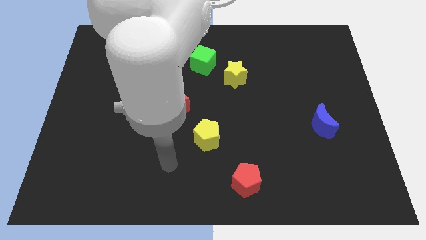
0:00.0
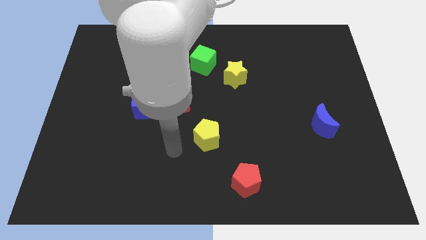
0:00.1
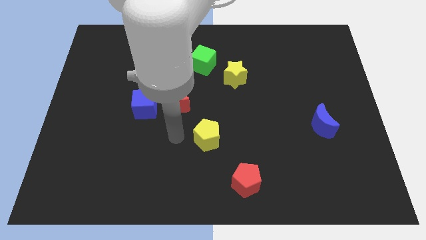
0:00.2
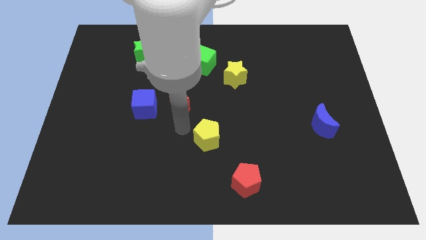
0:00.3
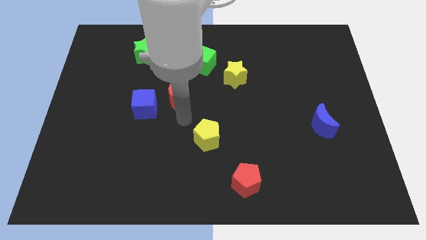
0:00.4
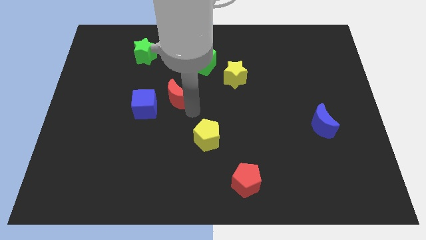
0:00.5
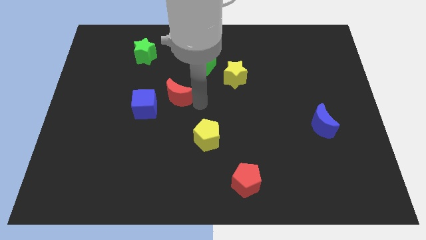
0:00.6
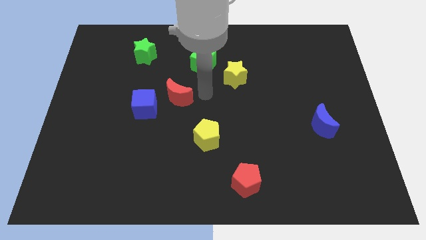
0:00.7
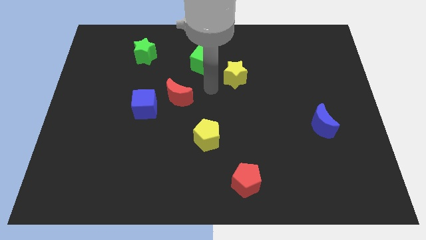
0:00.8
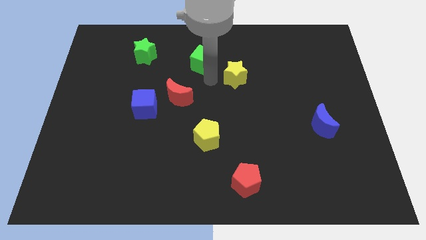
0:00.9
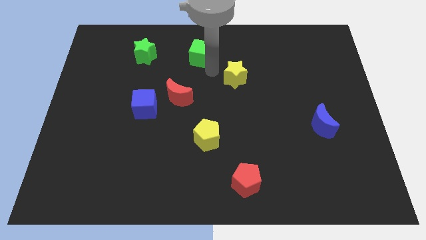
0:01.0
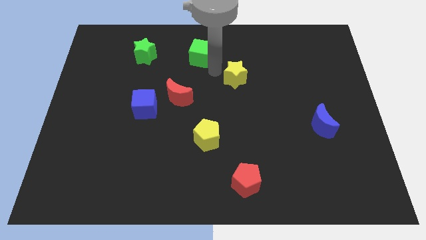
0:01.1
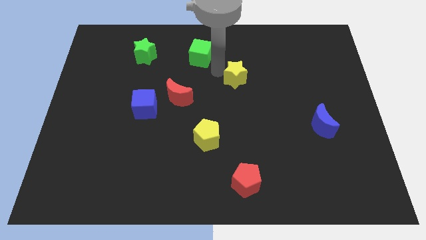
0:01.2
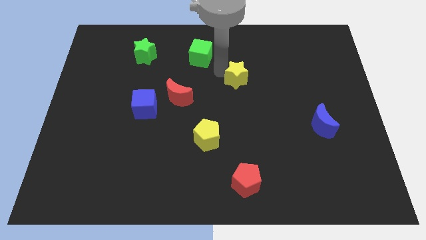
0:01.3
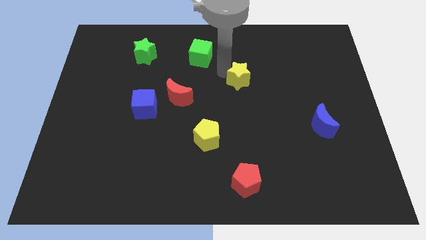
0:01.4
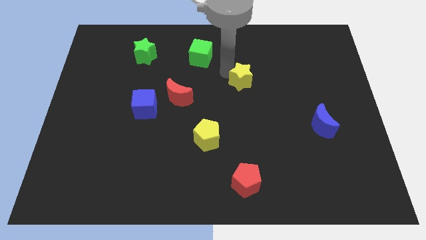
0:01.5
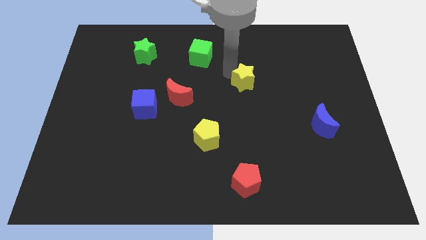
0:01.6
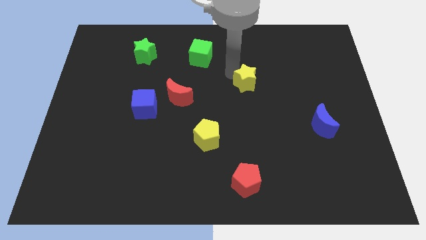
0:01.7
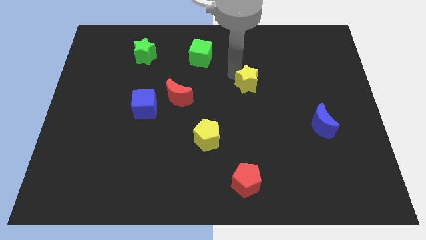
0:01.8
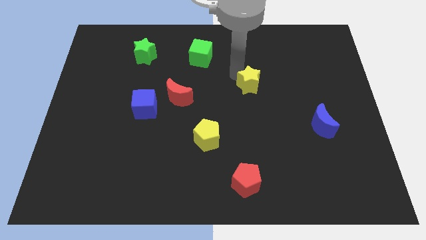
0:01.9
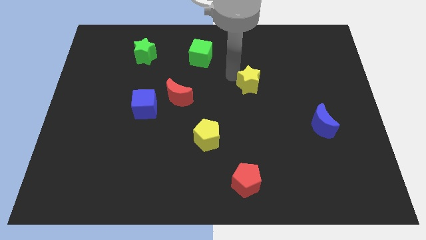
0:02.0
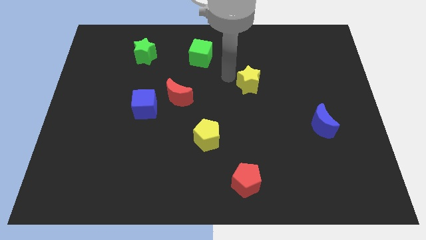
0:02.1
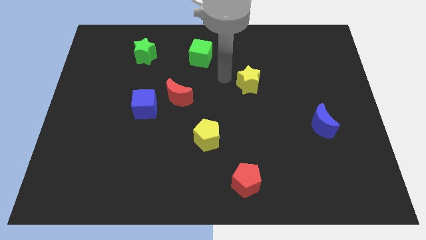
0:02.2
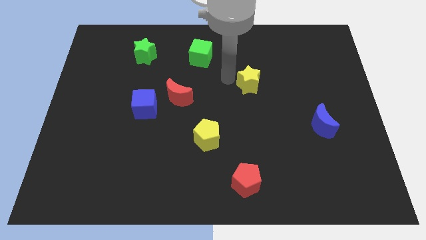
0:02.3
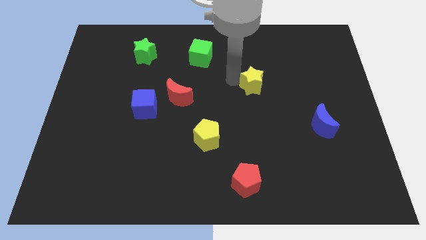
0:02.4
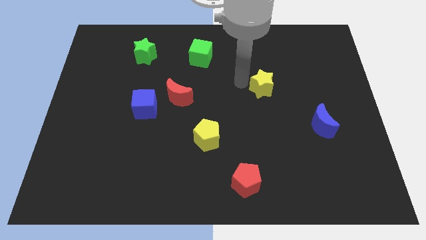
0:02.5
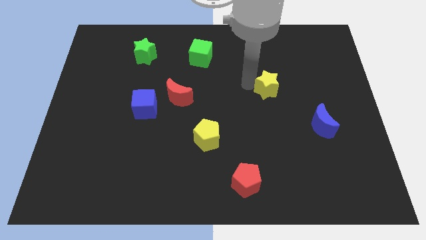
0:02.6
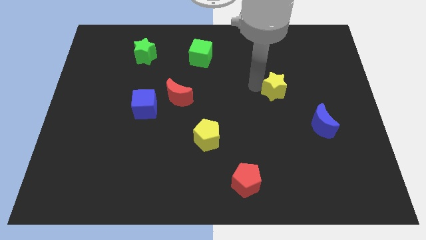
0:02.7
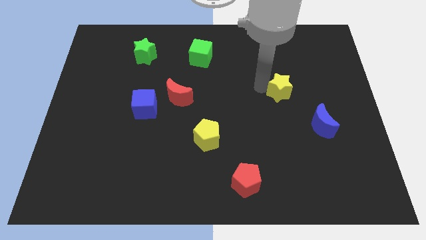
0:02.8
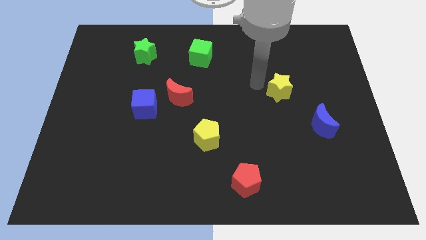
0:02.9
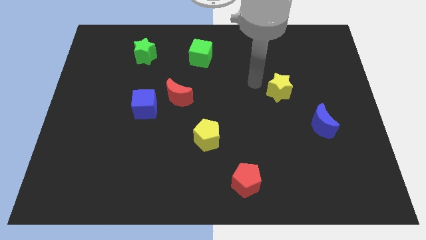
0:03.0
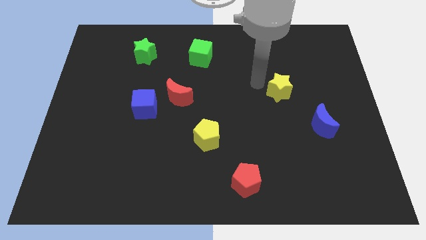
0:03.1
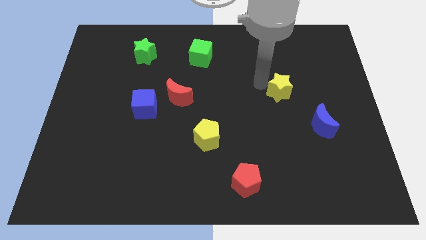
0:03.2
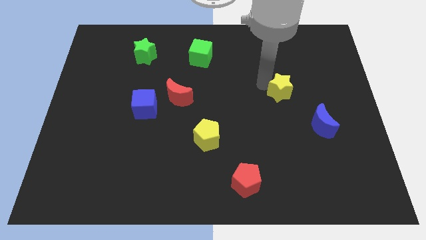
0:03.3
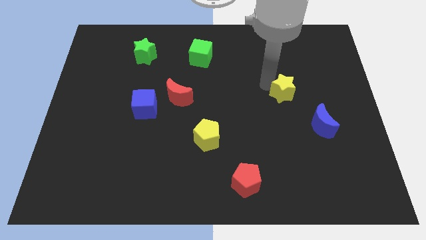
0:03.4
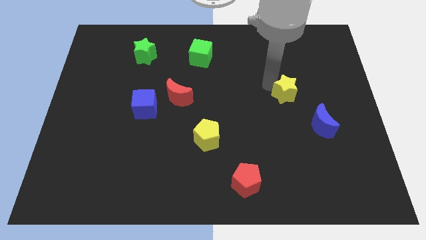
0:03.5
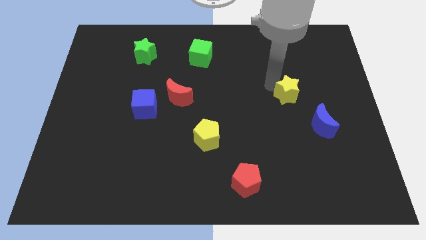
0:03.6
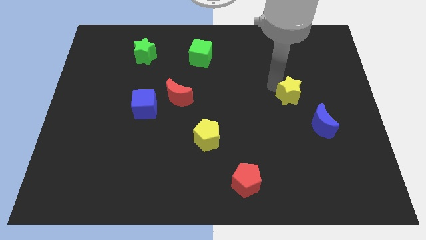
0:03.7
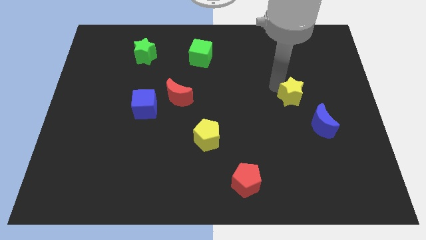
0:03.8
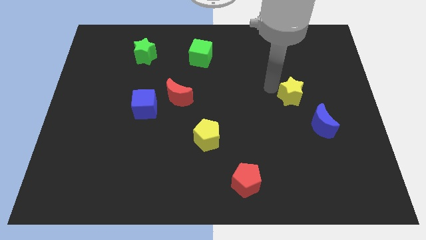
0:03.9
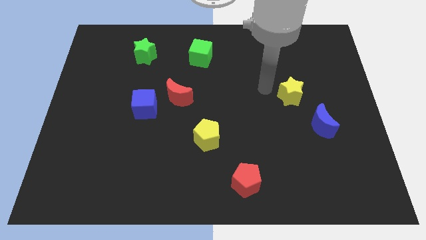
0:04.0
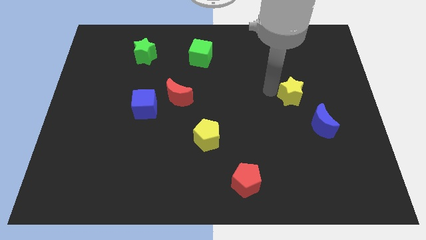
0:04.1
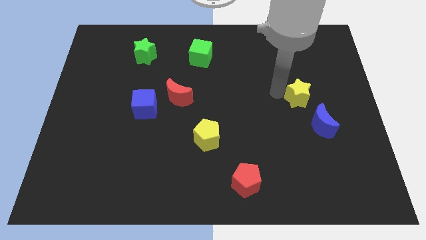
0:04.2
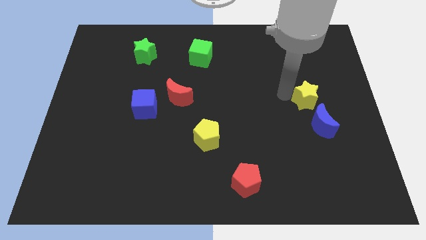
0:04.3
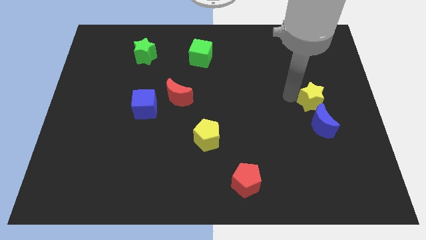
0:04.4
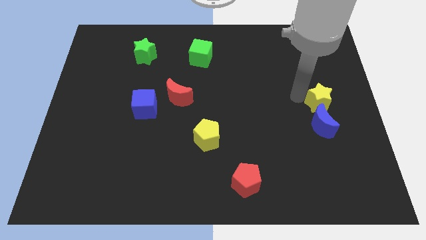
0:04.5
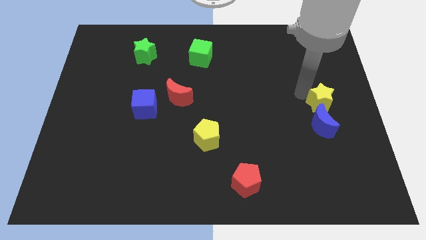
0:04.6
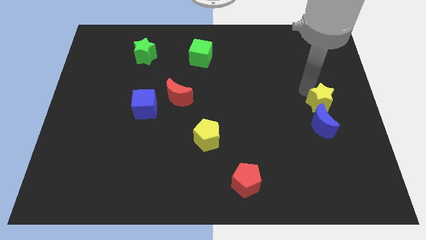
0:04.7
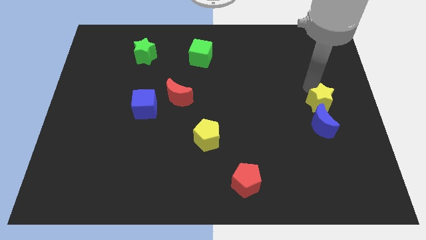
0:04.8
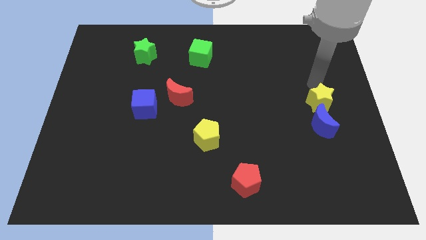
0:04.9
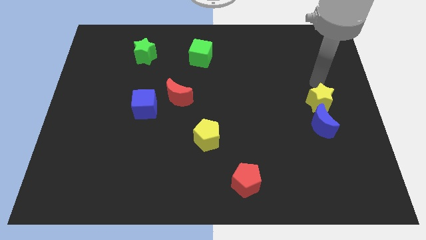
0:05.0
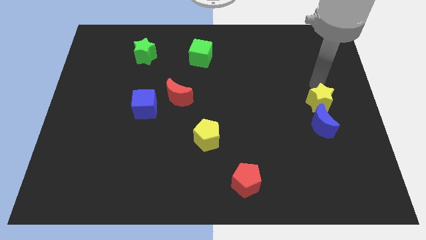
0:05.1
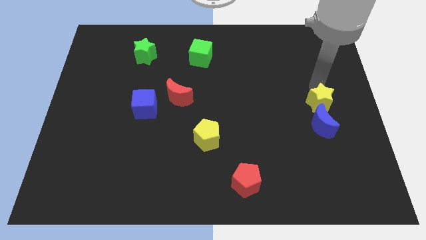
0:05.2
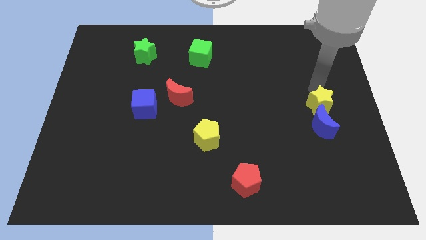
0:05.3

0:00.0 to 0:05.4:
move the yellow star towards the blue moon

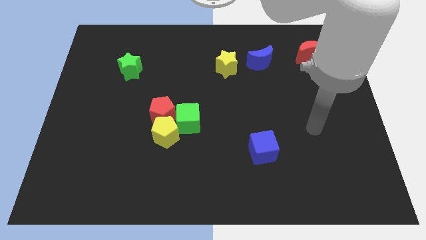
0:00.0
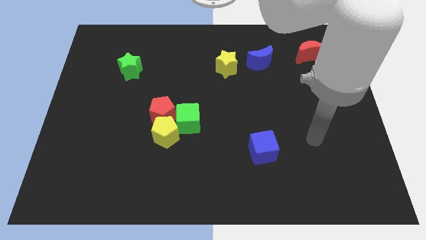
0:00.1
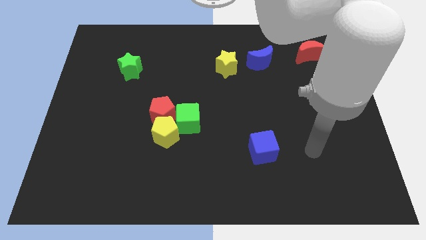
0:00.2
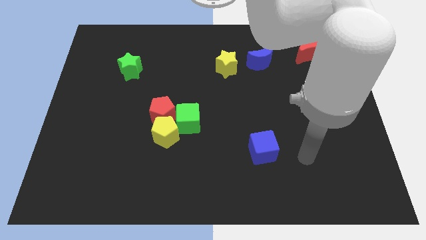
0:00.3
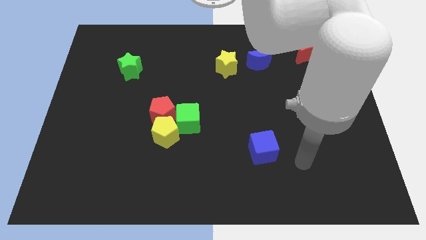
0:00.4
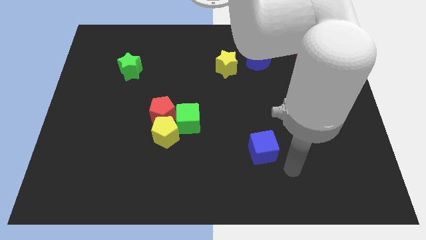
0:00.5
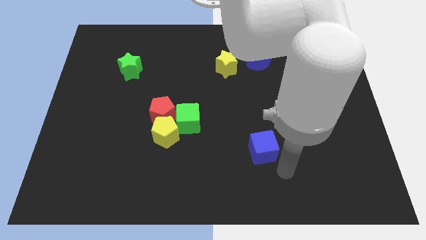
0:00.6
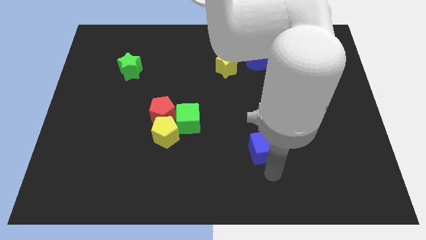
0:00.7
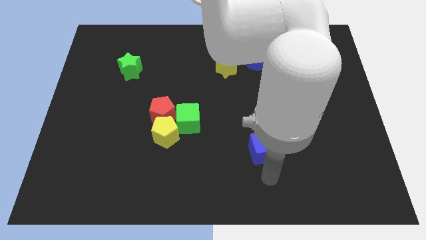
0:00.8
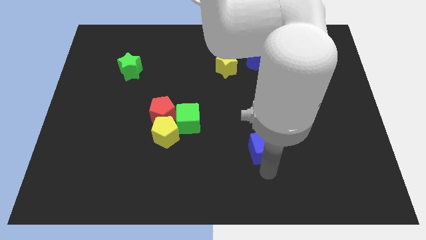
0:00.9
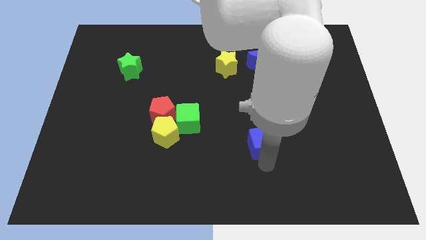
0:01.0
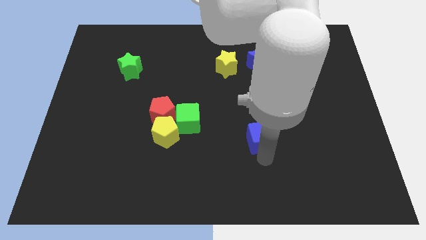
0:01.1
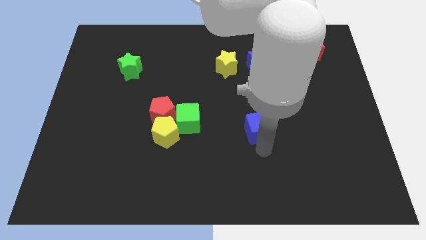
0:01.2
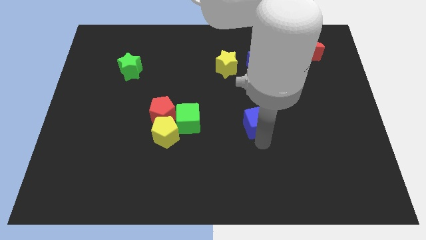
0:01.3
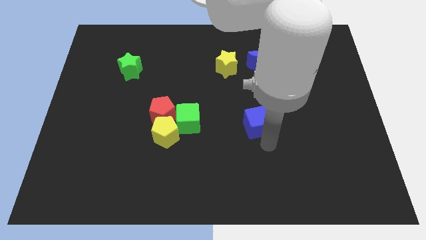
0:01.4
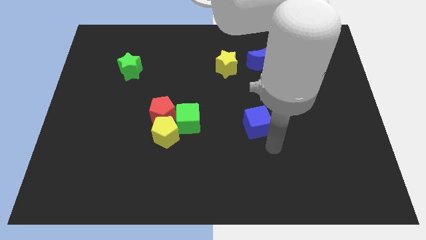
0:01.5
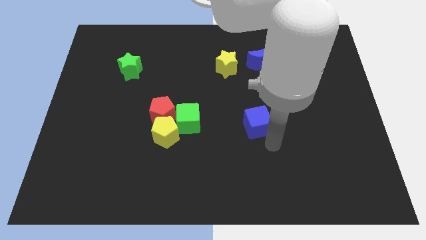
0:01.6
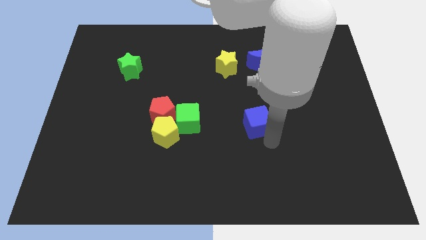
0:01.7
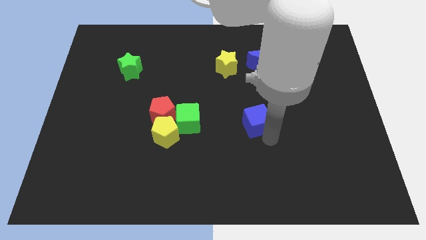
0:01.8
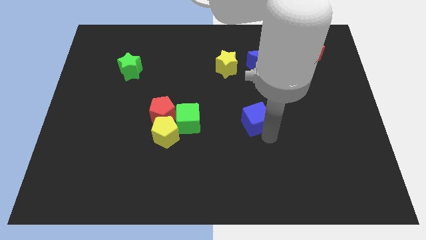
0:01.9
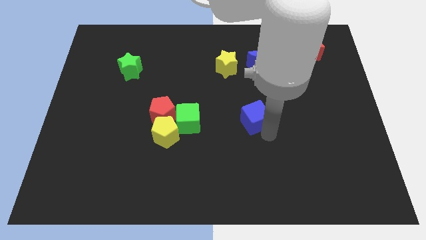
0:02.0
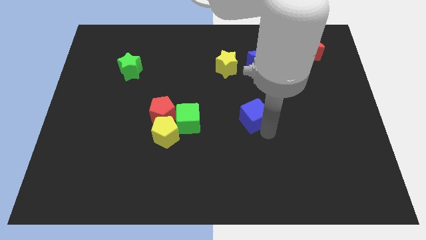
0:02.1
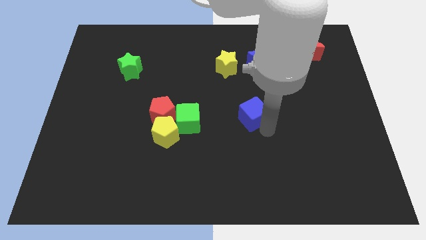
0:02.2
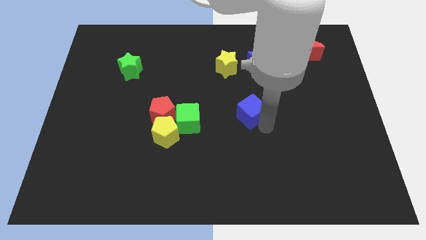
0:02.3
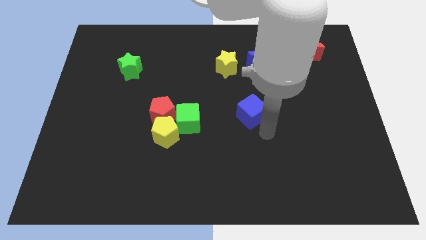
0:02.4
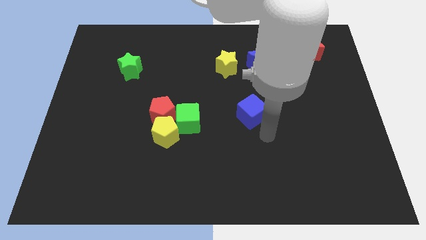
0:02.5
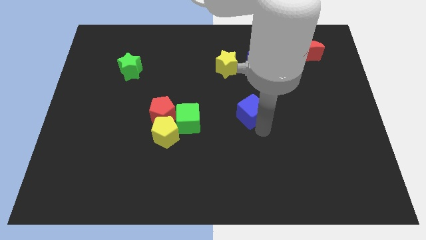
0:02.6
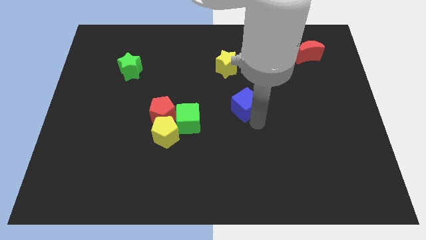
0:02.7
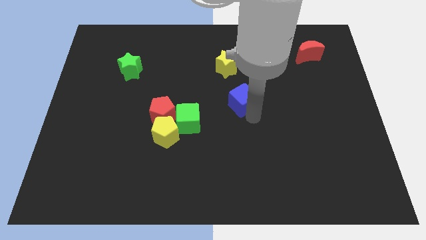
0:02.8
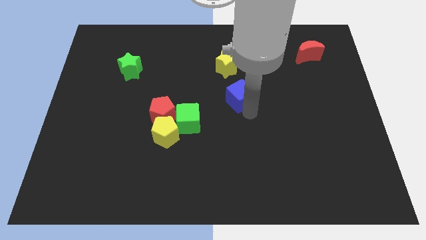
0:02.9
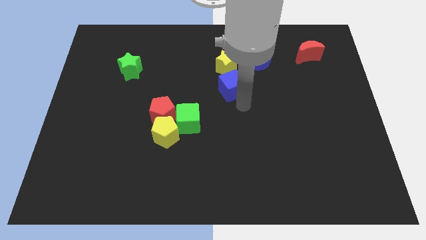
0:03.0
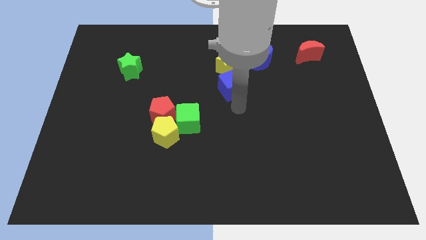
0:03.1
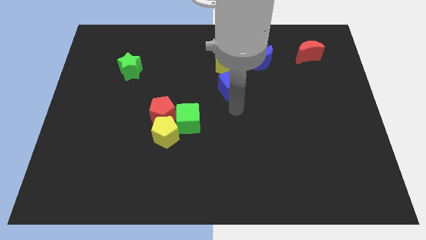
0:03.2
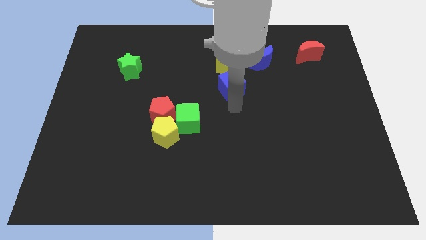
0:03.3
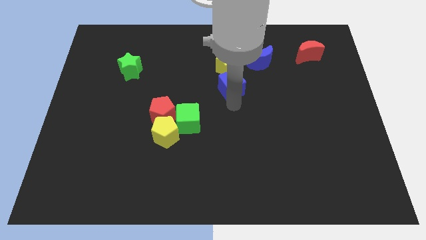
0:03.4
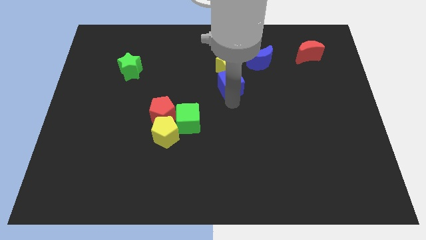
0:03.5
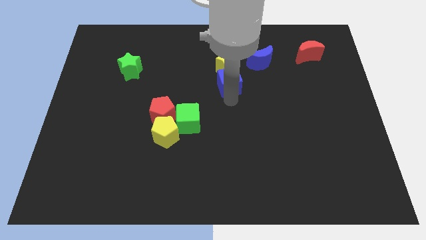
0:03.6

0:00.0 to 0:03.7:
push the blue cube next to the yellow star
